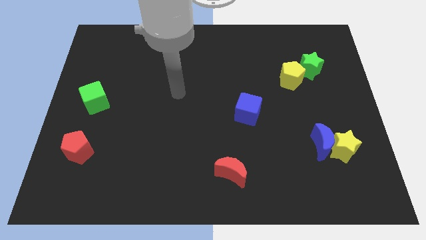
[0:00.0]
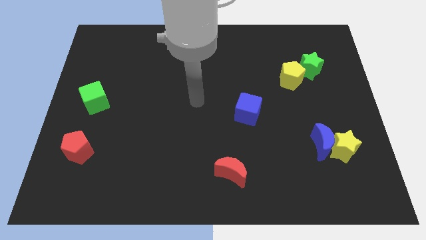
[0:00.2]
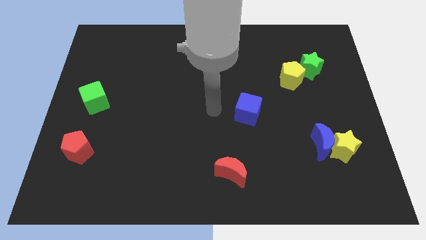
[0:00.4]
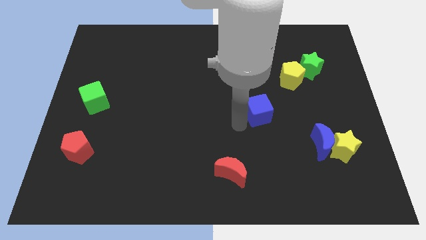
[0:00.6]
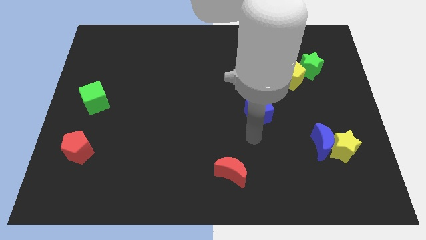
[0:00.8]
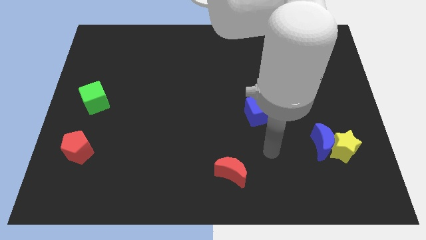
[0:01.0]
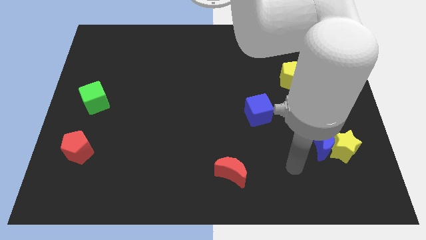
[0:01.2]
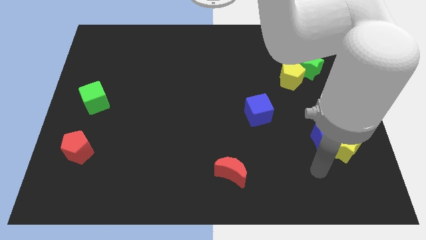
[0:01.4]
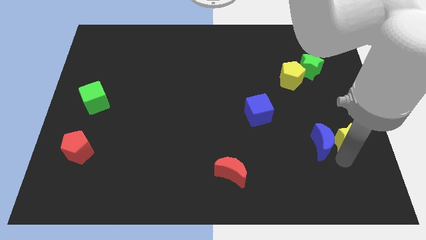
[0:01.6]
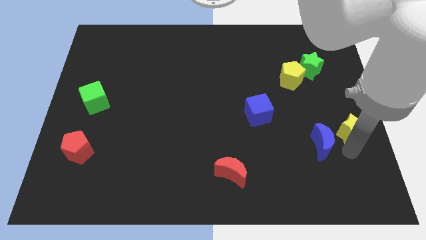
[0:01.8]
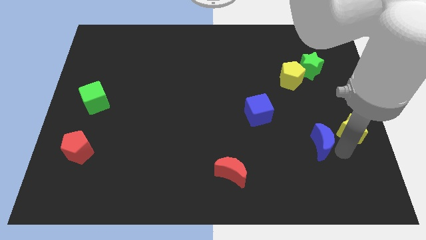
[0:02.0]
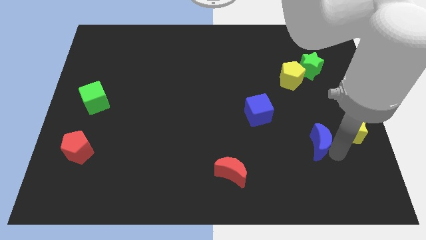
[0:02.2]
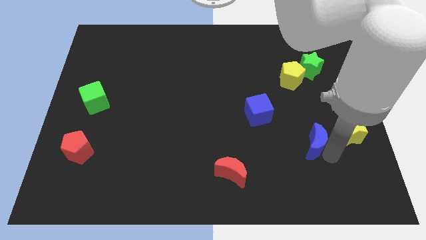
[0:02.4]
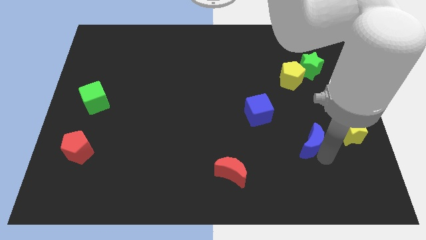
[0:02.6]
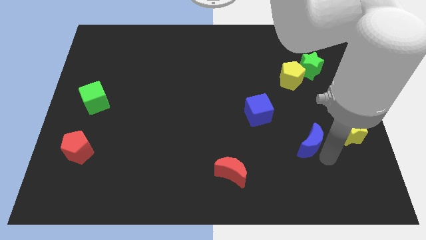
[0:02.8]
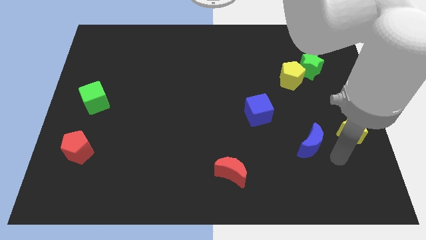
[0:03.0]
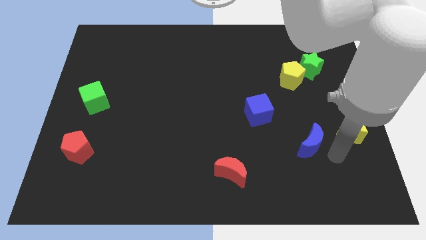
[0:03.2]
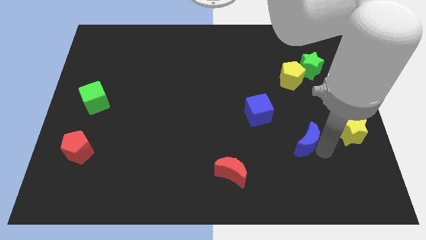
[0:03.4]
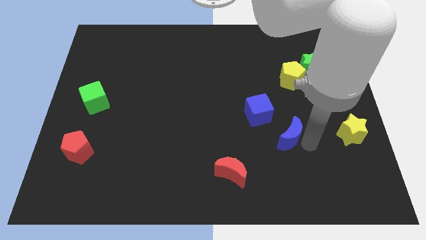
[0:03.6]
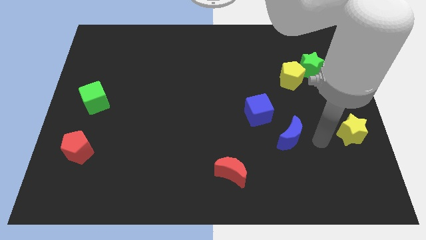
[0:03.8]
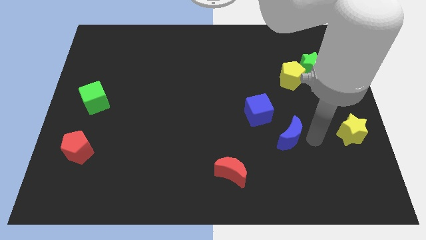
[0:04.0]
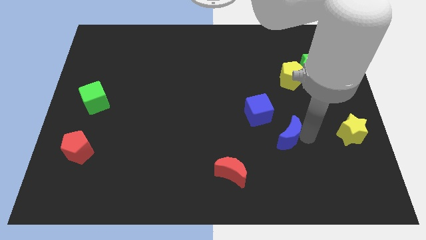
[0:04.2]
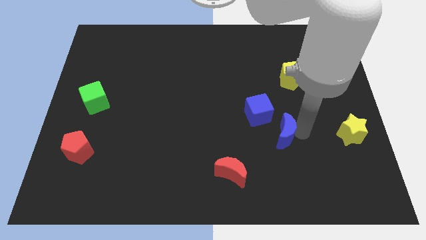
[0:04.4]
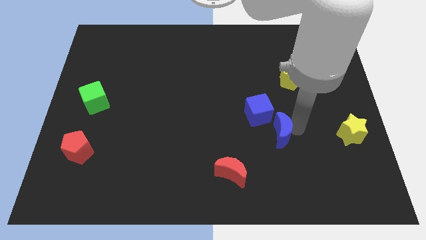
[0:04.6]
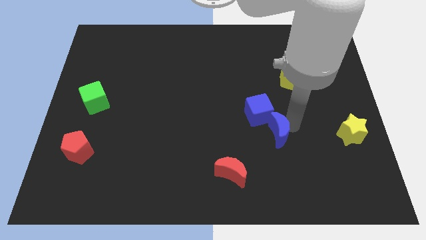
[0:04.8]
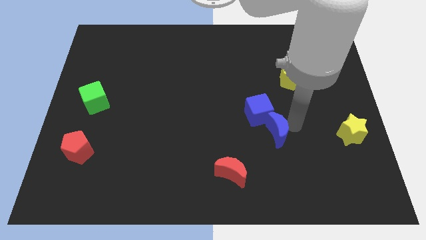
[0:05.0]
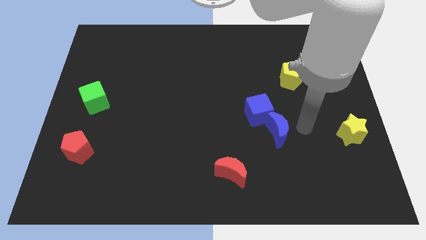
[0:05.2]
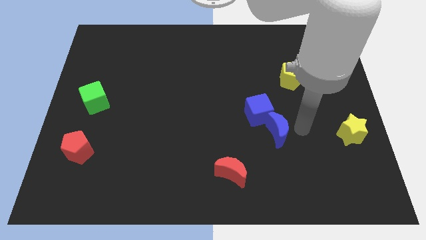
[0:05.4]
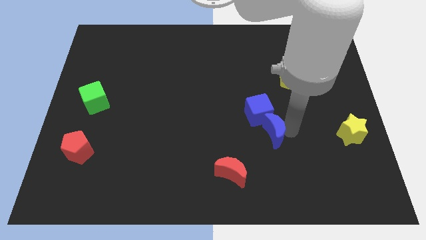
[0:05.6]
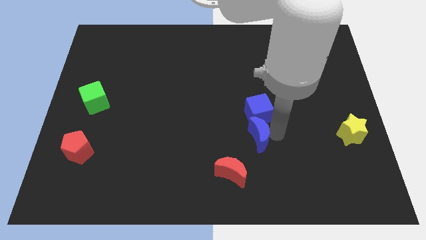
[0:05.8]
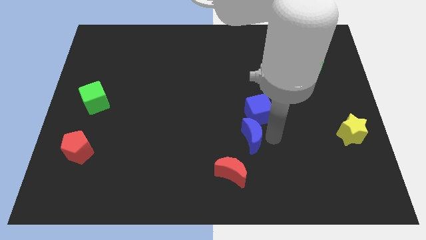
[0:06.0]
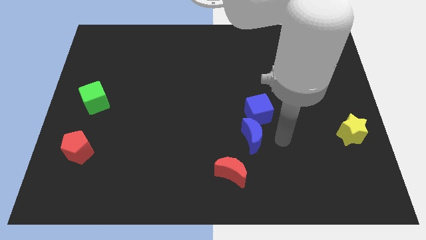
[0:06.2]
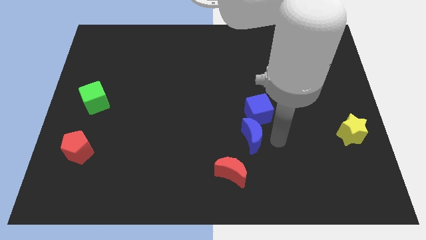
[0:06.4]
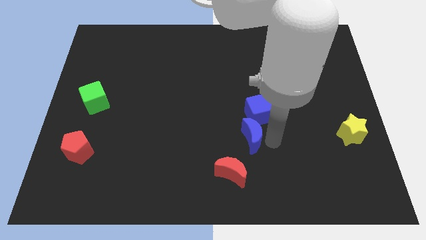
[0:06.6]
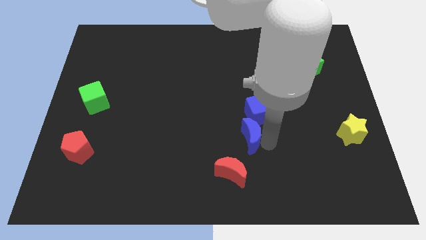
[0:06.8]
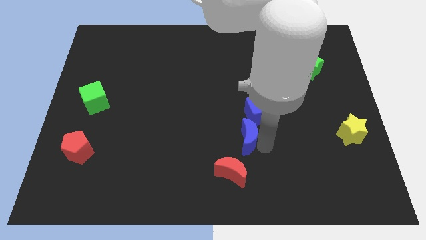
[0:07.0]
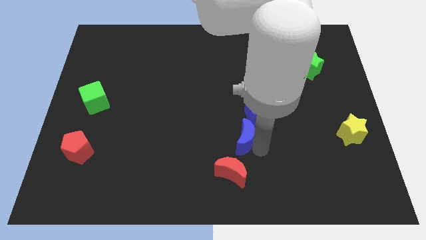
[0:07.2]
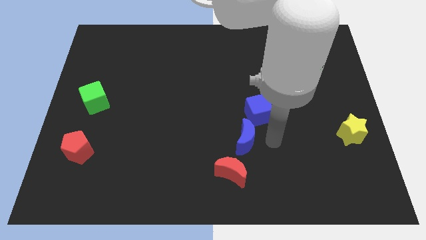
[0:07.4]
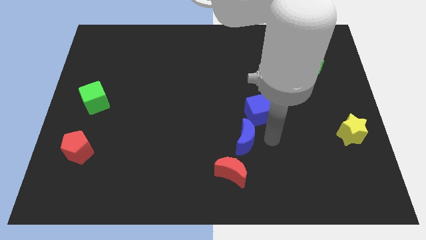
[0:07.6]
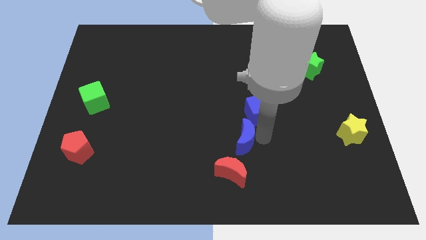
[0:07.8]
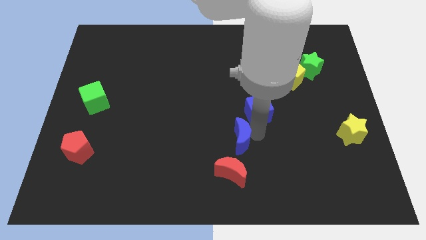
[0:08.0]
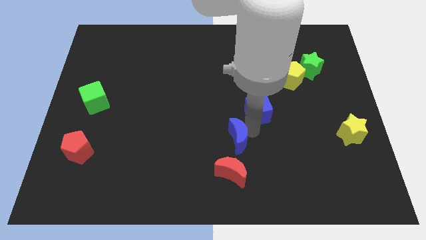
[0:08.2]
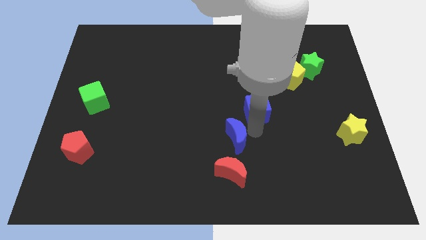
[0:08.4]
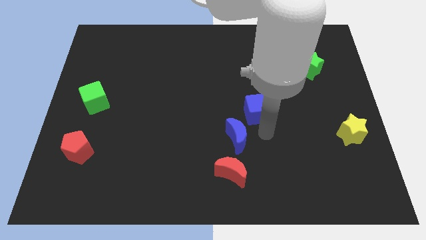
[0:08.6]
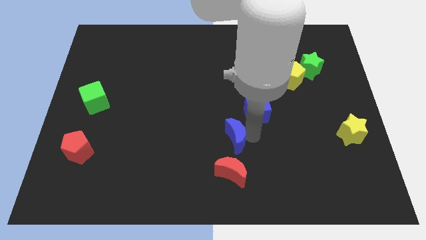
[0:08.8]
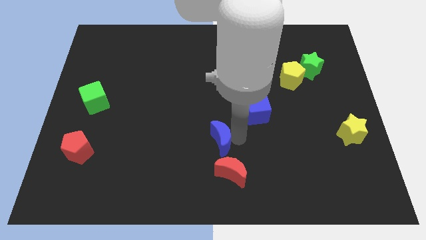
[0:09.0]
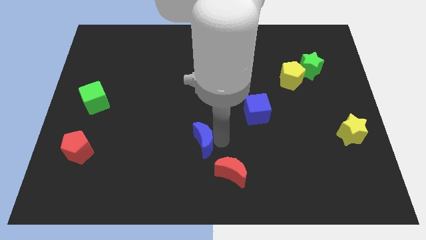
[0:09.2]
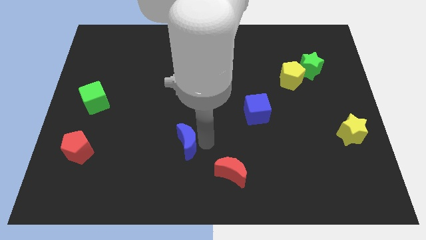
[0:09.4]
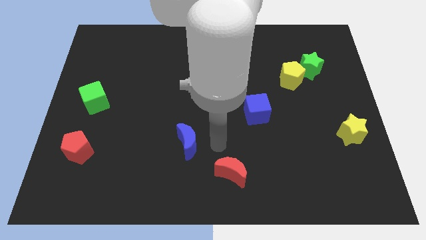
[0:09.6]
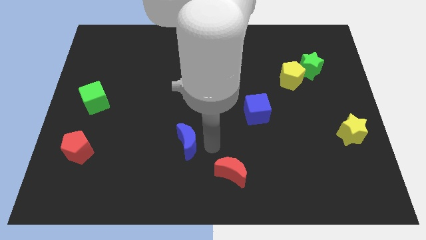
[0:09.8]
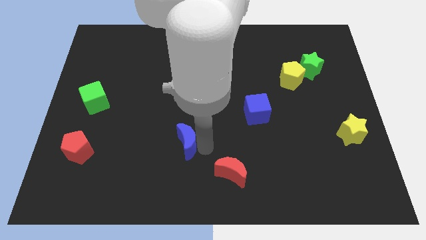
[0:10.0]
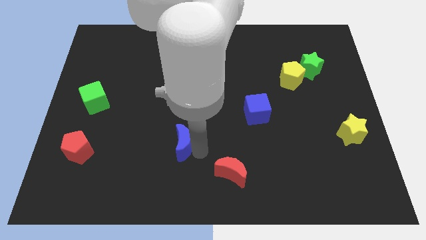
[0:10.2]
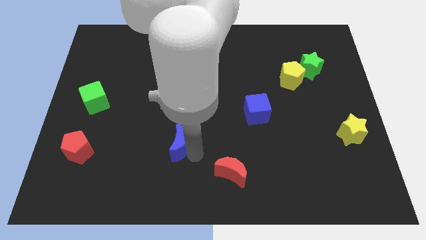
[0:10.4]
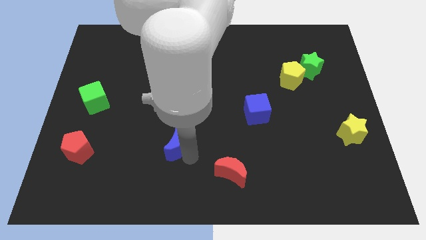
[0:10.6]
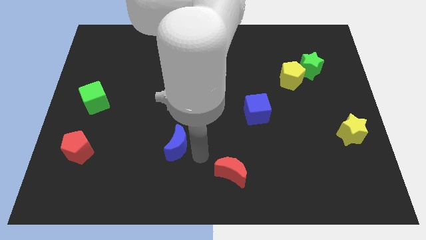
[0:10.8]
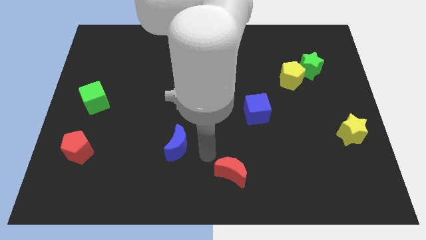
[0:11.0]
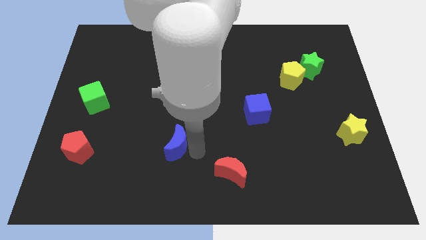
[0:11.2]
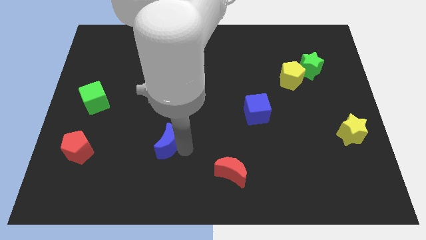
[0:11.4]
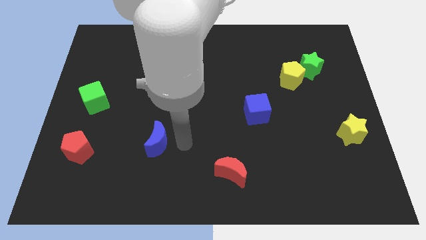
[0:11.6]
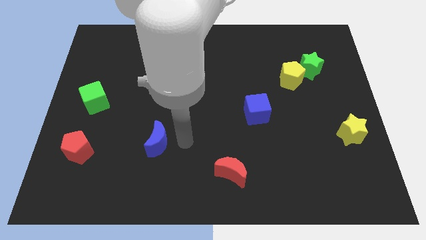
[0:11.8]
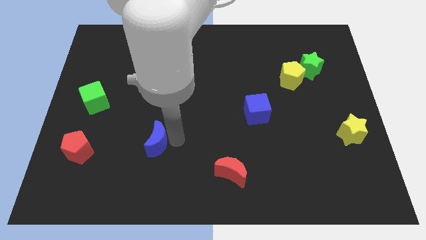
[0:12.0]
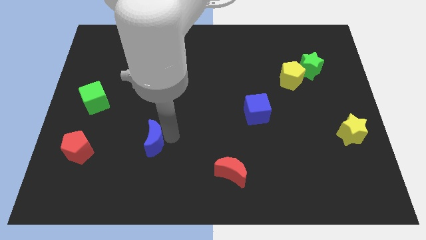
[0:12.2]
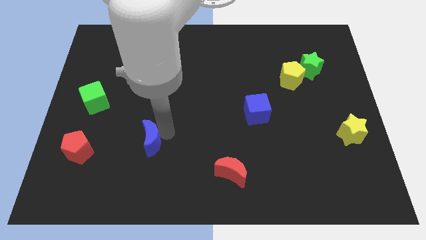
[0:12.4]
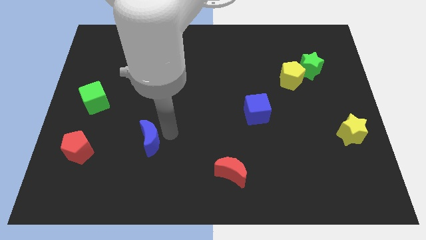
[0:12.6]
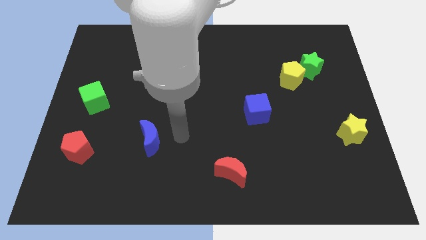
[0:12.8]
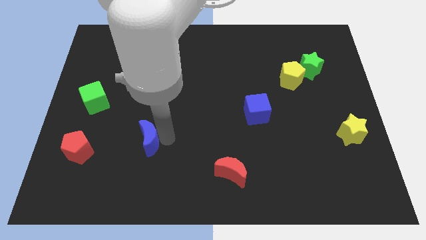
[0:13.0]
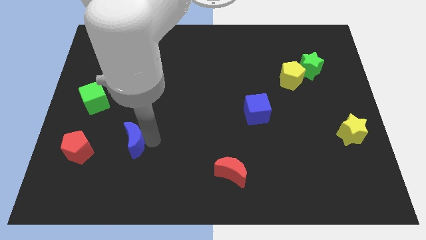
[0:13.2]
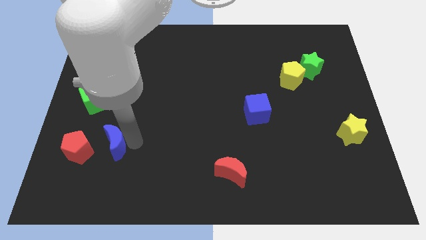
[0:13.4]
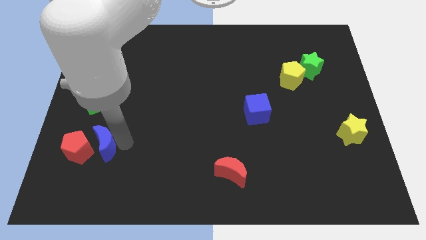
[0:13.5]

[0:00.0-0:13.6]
put the blue moon next to the red pentagon
